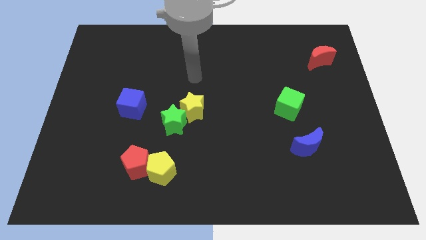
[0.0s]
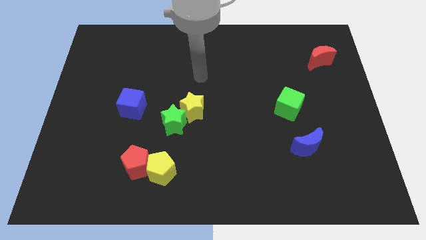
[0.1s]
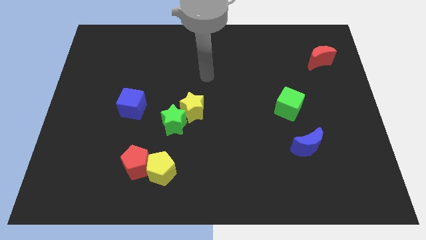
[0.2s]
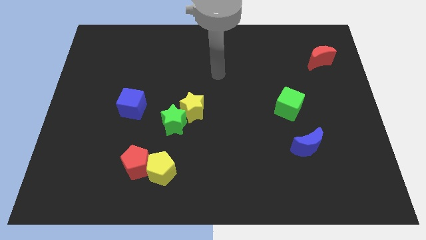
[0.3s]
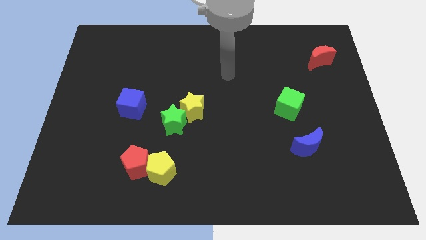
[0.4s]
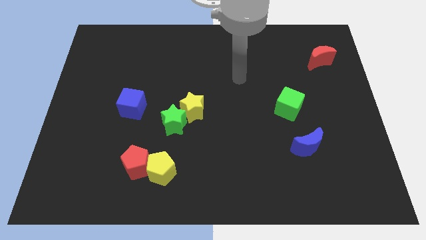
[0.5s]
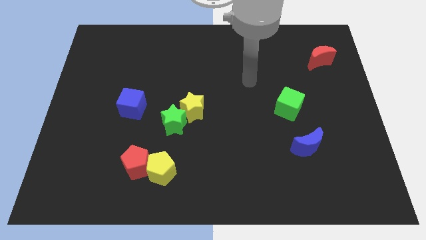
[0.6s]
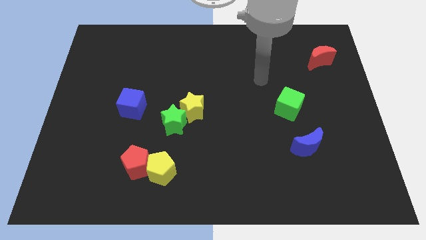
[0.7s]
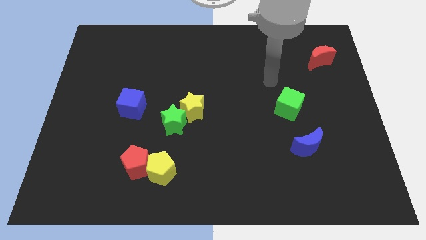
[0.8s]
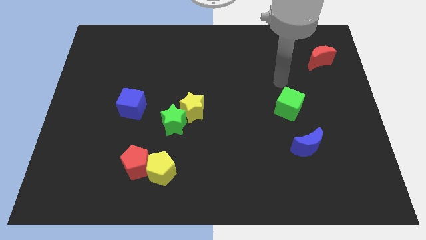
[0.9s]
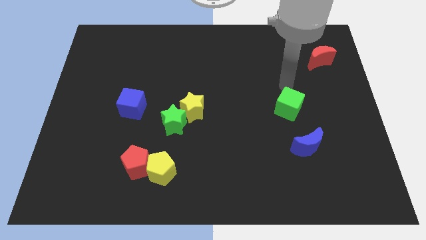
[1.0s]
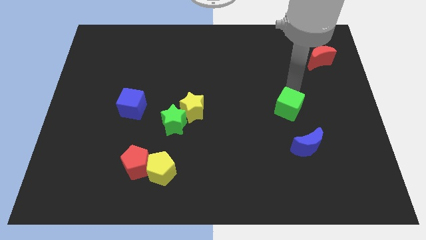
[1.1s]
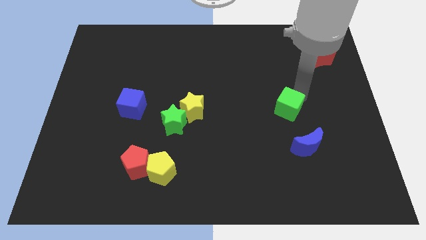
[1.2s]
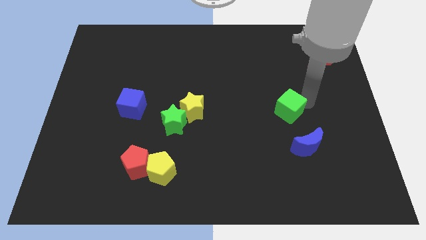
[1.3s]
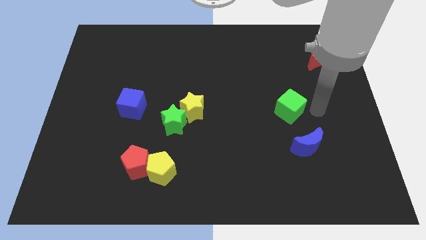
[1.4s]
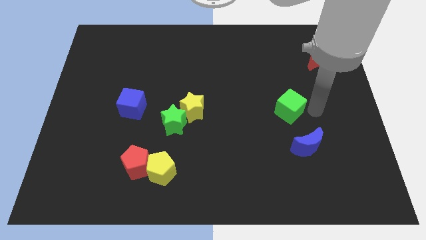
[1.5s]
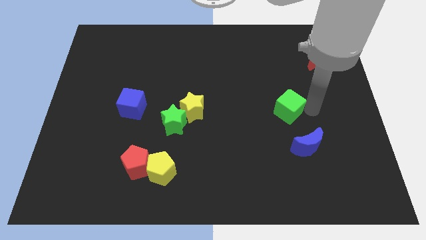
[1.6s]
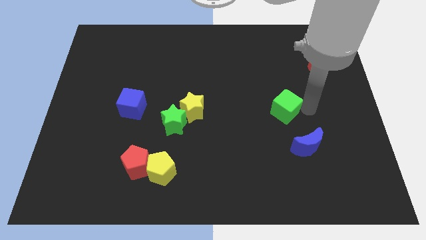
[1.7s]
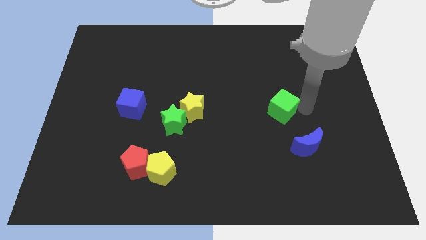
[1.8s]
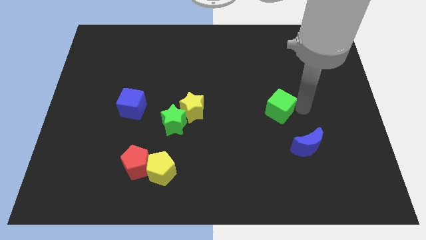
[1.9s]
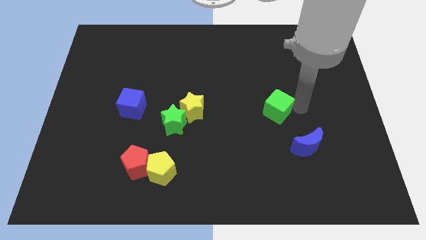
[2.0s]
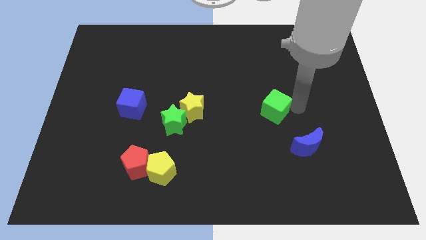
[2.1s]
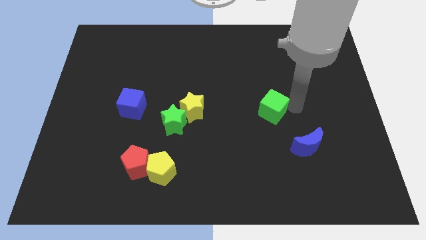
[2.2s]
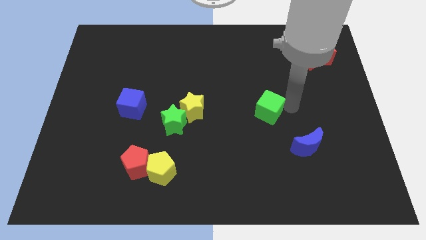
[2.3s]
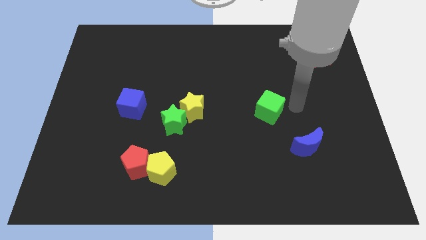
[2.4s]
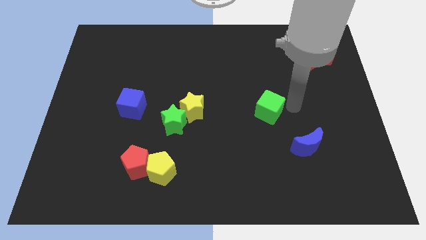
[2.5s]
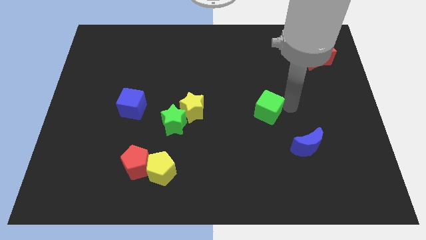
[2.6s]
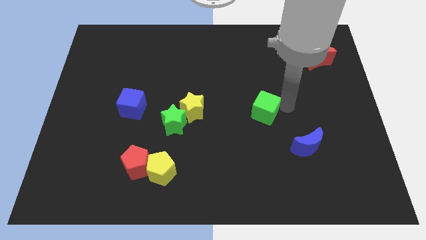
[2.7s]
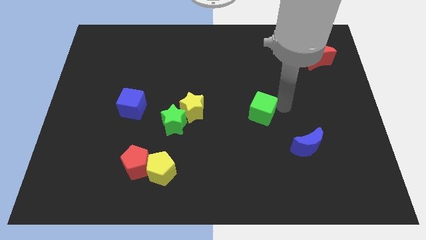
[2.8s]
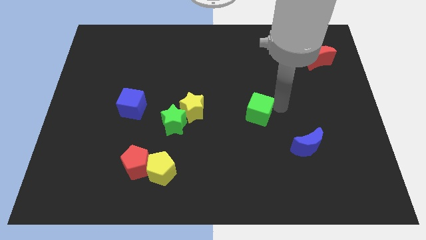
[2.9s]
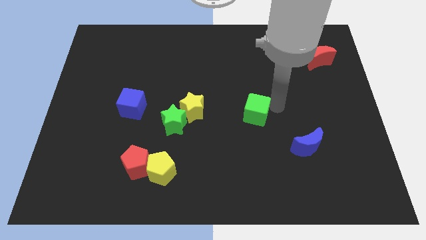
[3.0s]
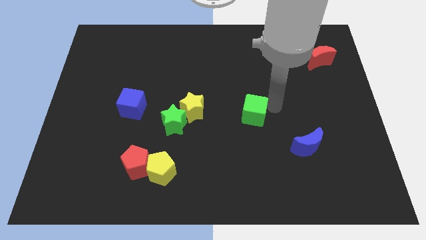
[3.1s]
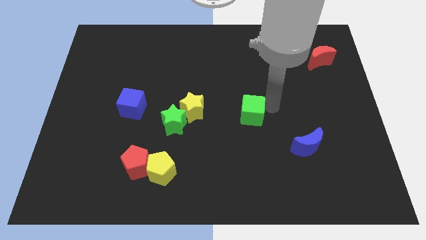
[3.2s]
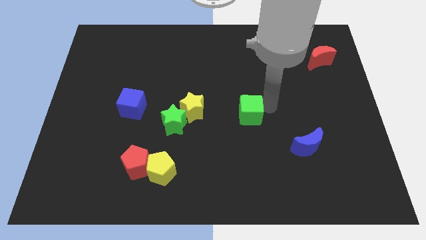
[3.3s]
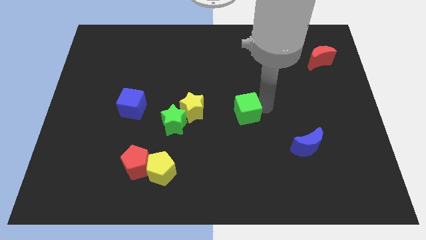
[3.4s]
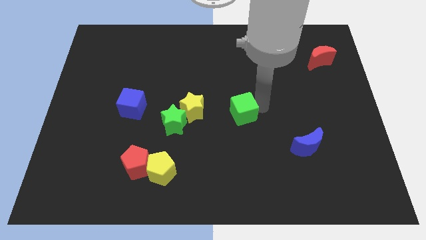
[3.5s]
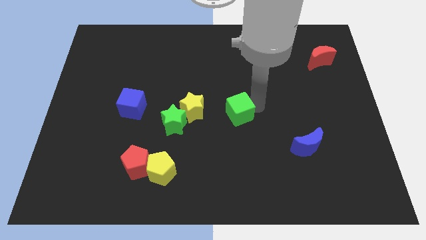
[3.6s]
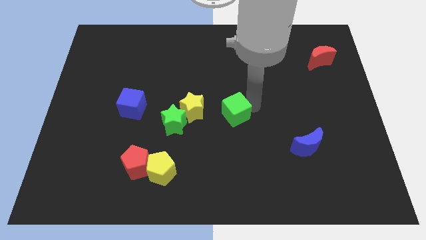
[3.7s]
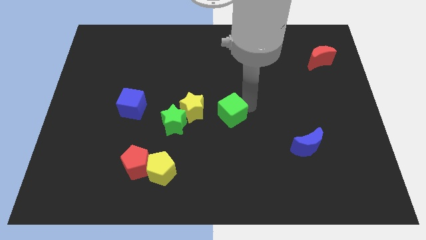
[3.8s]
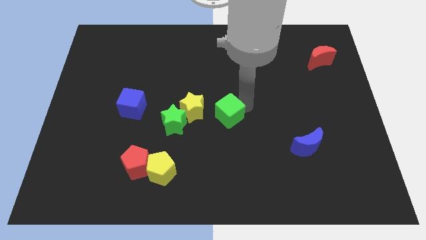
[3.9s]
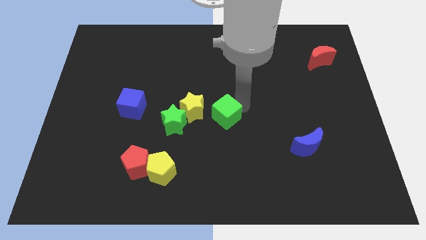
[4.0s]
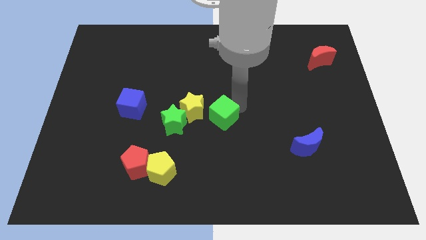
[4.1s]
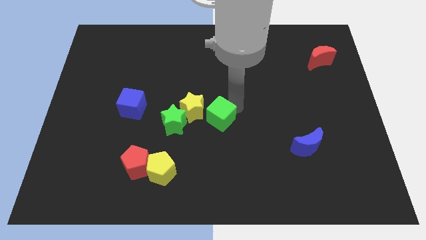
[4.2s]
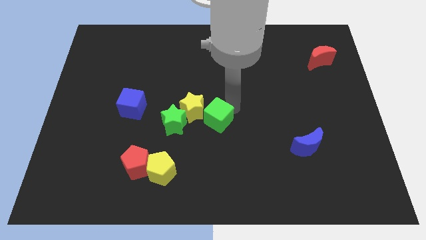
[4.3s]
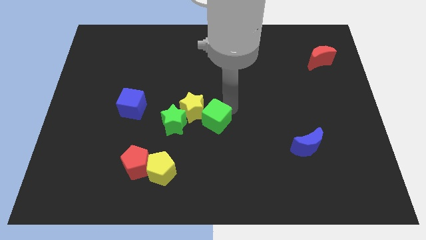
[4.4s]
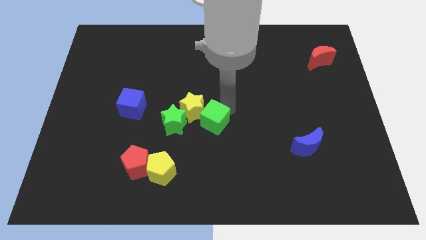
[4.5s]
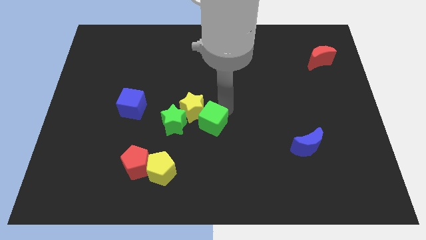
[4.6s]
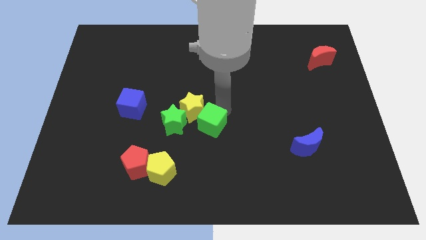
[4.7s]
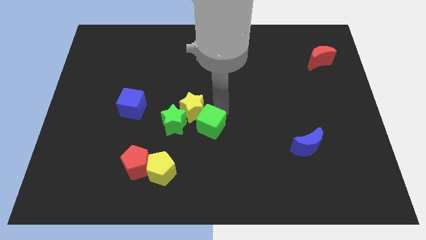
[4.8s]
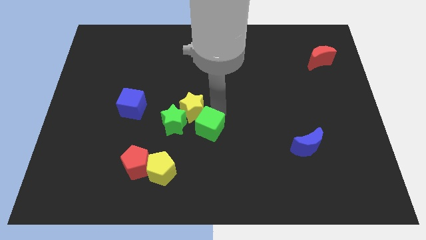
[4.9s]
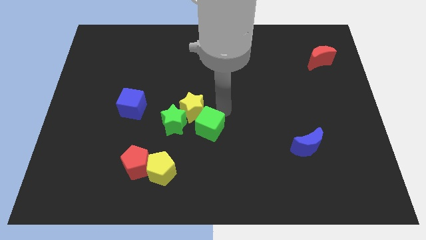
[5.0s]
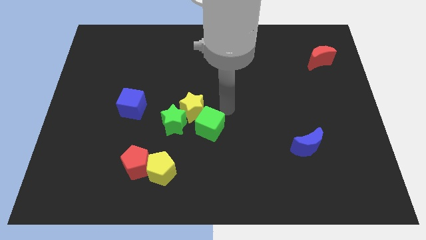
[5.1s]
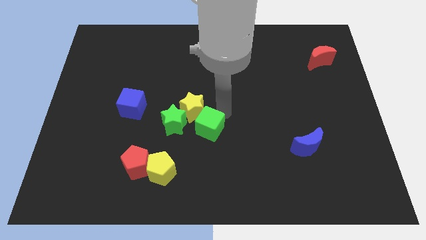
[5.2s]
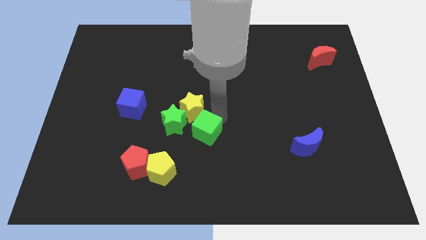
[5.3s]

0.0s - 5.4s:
push the green cube to the bottom right of the green star

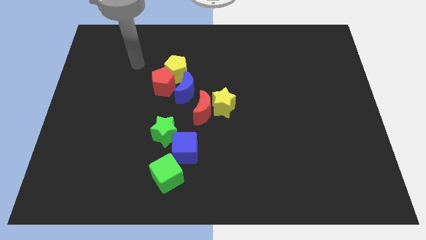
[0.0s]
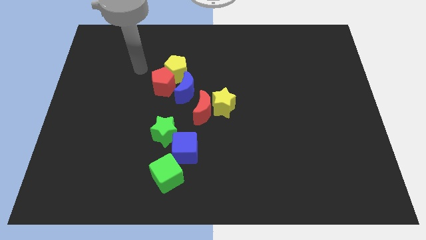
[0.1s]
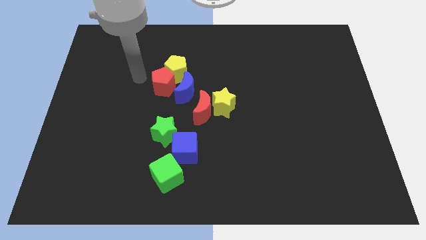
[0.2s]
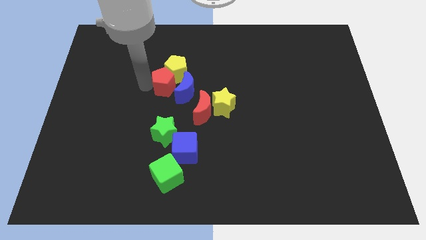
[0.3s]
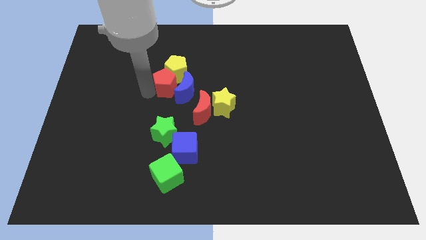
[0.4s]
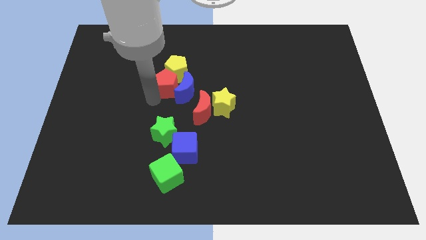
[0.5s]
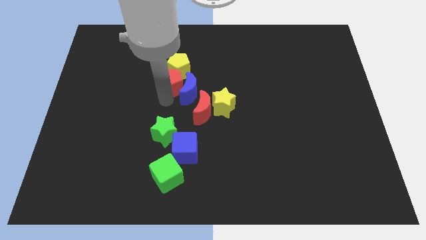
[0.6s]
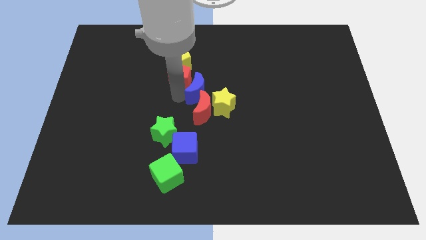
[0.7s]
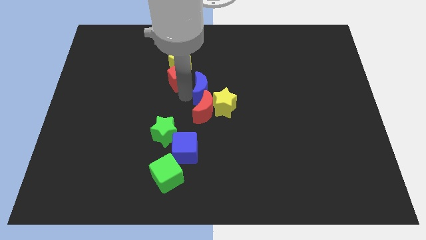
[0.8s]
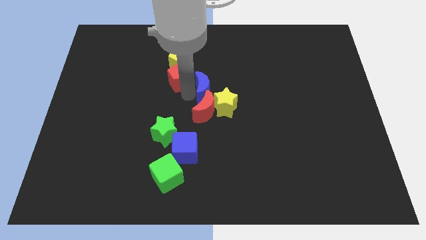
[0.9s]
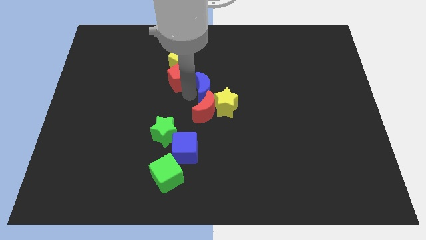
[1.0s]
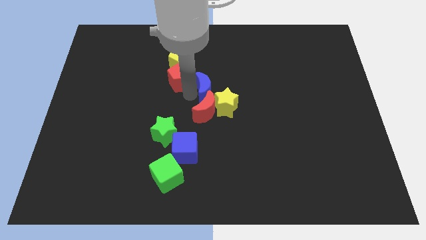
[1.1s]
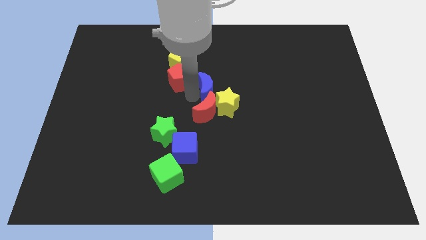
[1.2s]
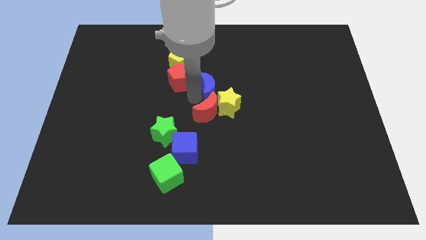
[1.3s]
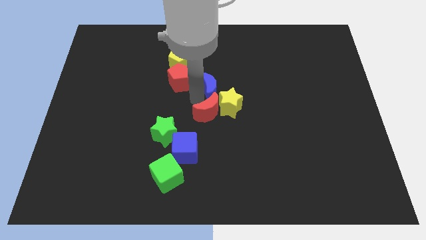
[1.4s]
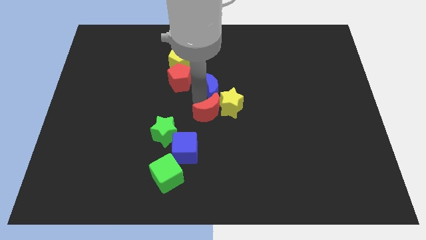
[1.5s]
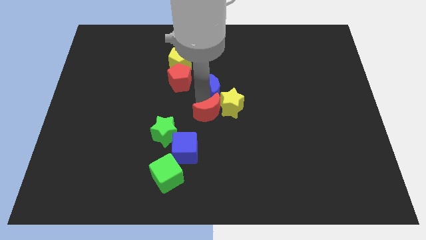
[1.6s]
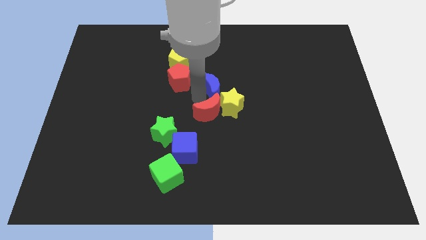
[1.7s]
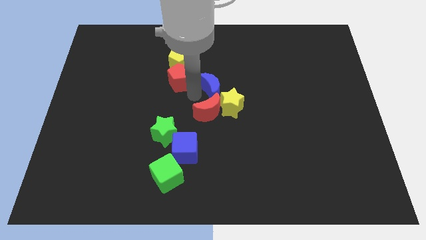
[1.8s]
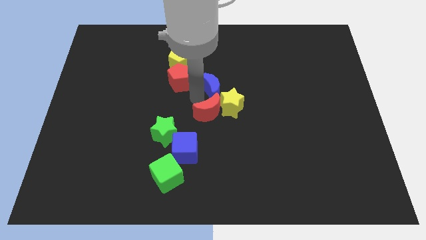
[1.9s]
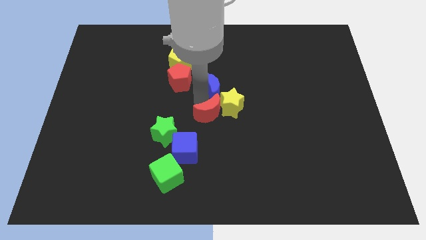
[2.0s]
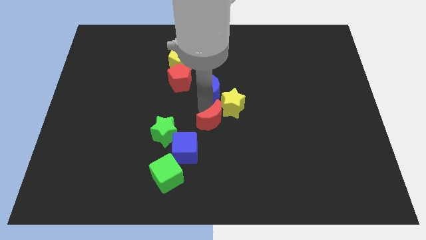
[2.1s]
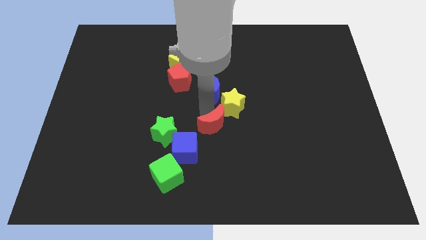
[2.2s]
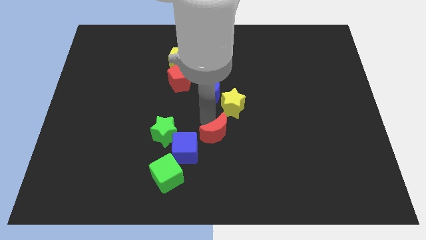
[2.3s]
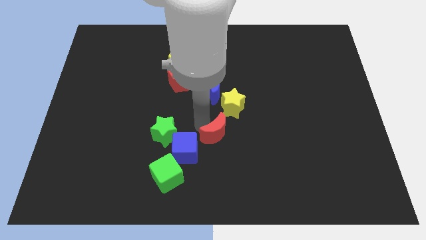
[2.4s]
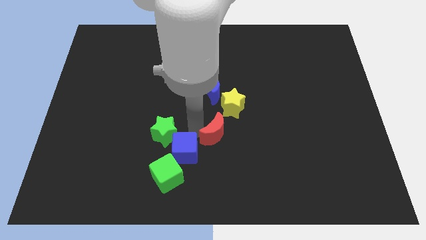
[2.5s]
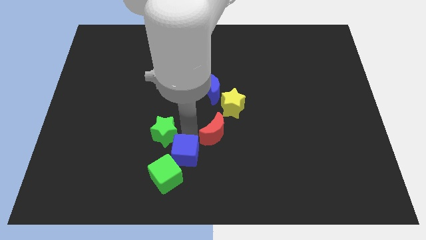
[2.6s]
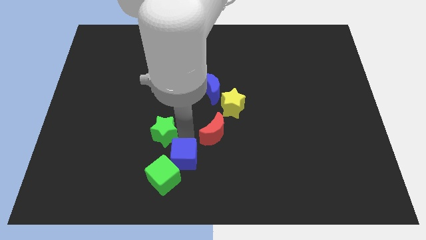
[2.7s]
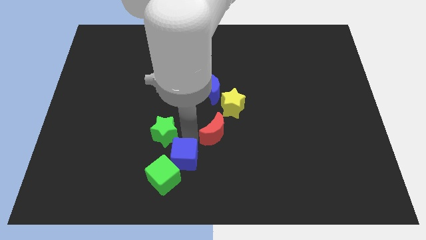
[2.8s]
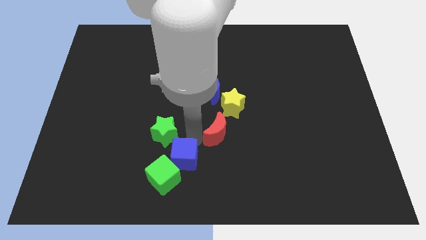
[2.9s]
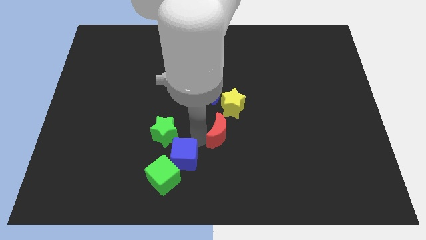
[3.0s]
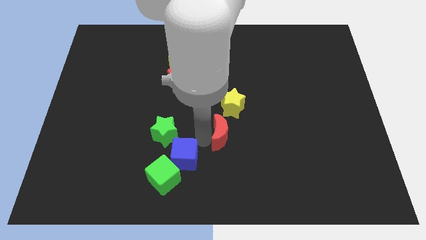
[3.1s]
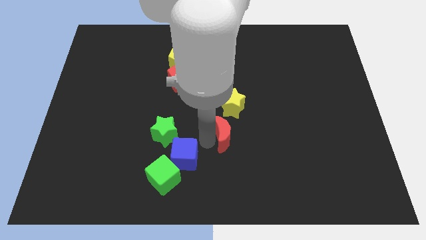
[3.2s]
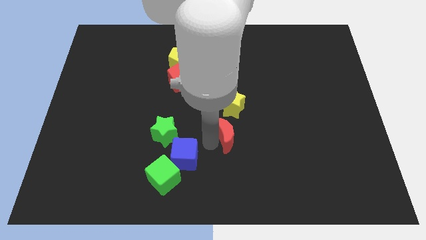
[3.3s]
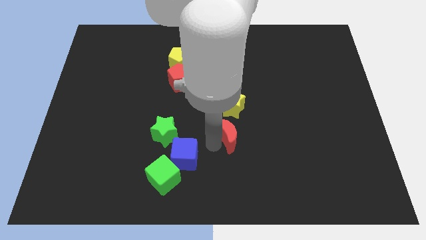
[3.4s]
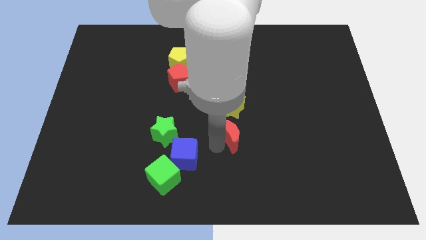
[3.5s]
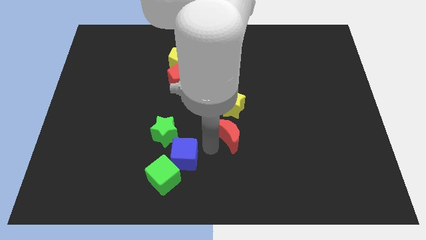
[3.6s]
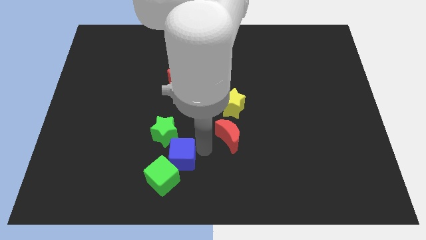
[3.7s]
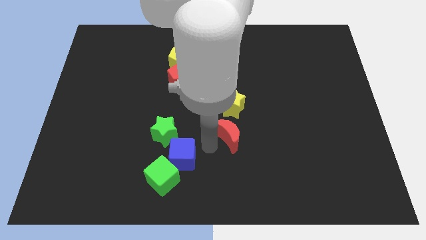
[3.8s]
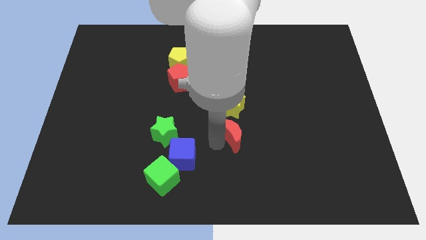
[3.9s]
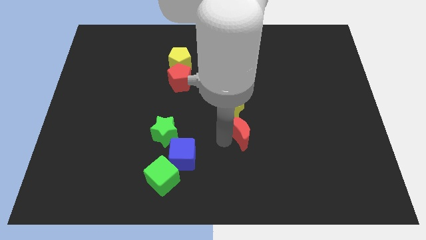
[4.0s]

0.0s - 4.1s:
put the red moon to the bottom right side of the yellow star
